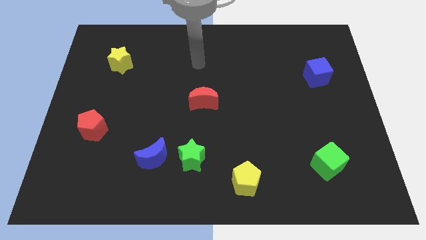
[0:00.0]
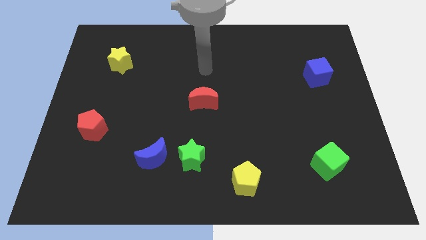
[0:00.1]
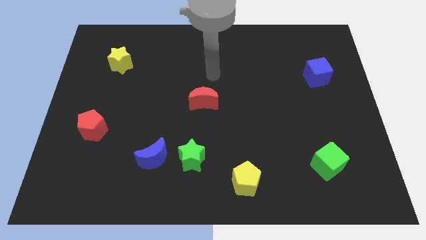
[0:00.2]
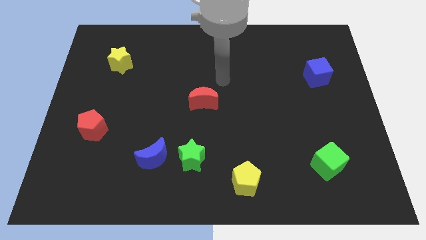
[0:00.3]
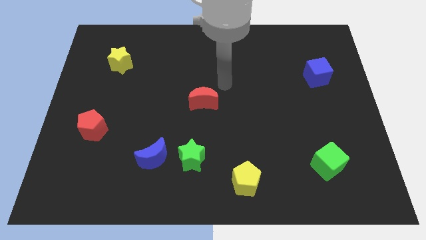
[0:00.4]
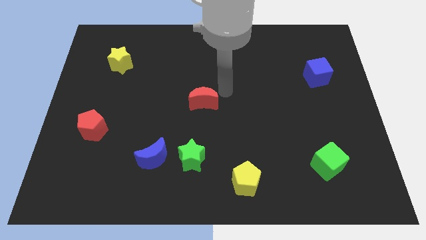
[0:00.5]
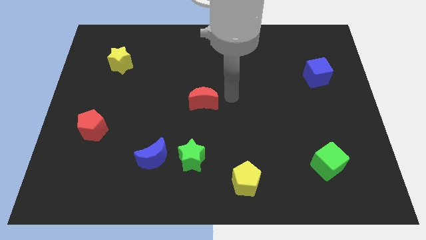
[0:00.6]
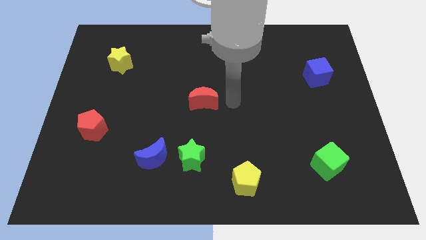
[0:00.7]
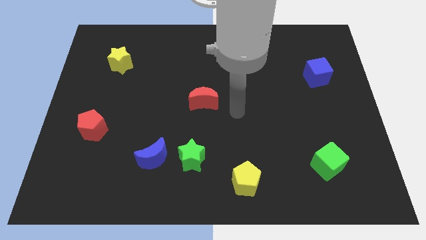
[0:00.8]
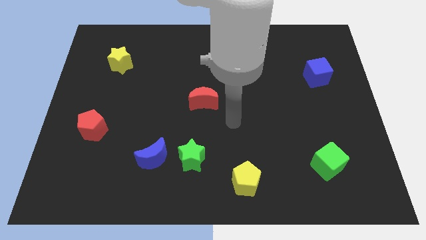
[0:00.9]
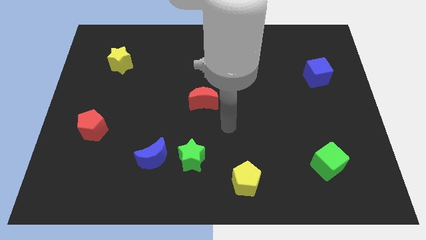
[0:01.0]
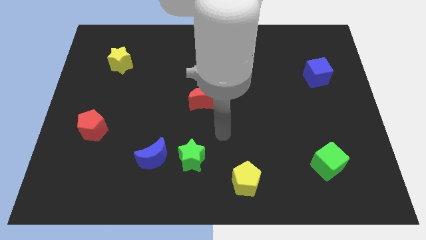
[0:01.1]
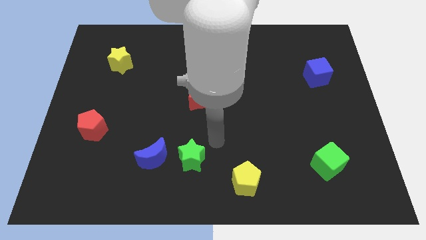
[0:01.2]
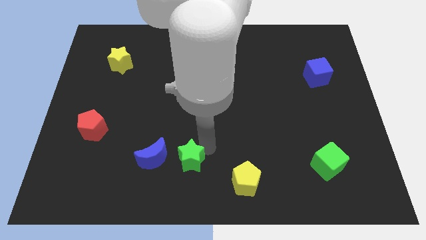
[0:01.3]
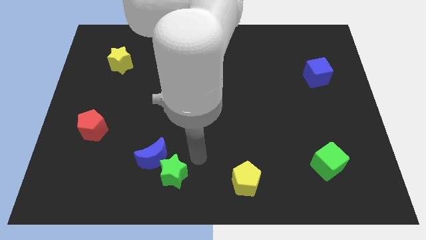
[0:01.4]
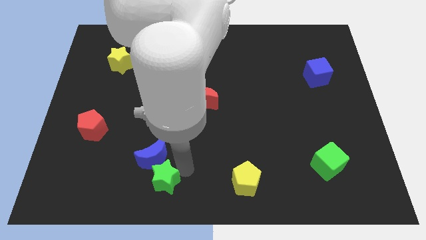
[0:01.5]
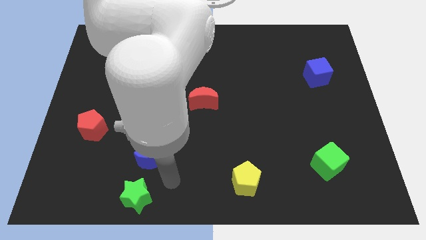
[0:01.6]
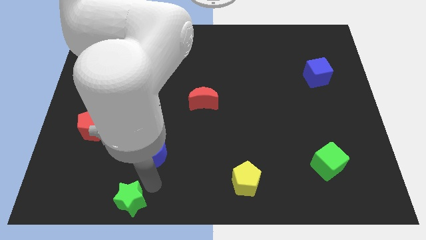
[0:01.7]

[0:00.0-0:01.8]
separate the blue moon from the green star

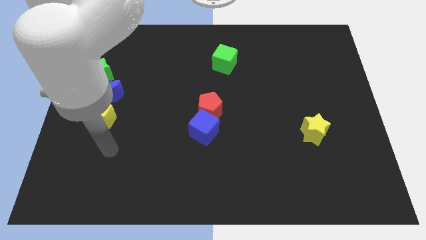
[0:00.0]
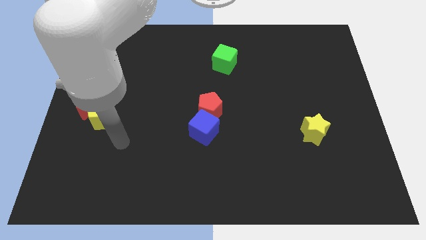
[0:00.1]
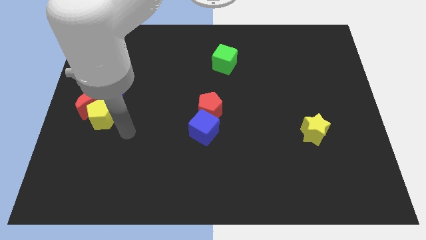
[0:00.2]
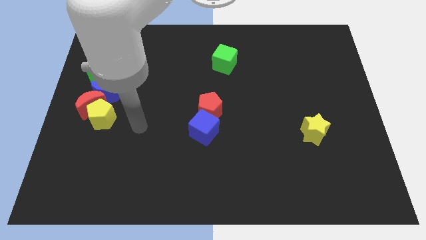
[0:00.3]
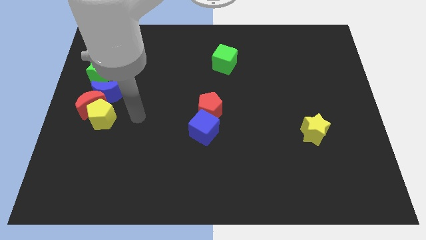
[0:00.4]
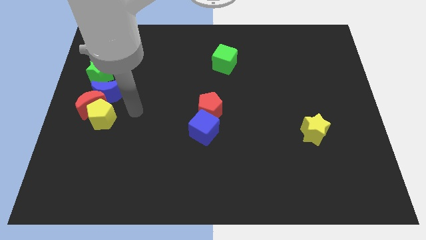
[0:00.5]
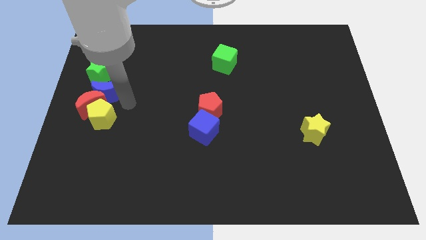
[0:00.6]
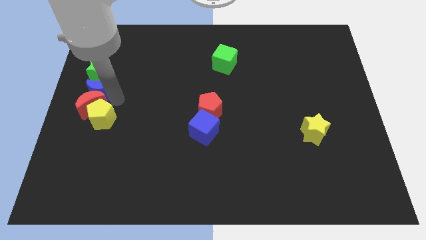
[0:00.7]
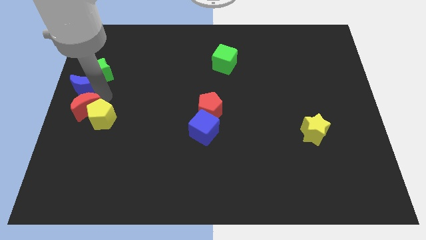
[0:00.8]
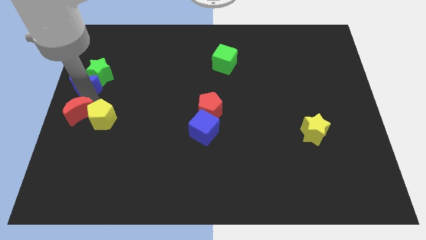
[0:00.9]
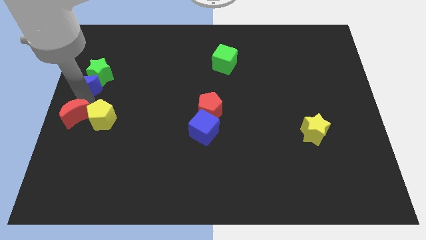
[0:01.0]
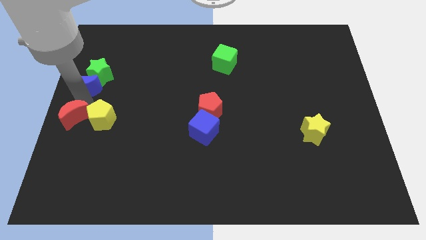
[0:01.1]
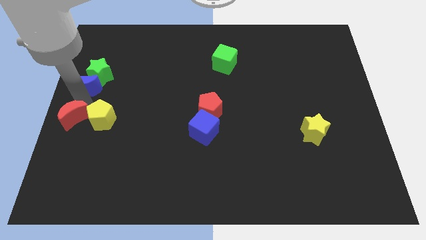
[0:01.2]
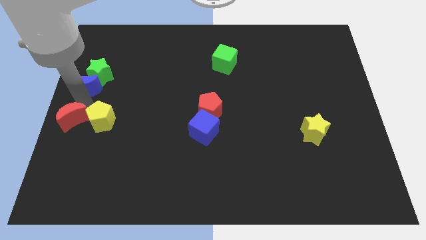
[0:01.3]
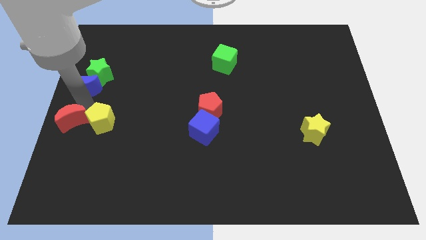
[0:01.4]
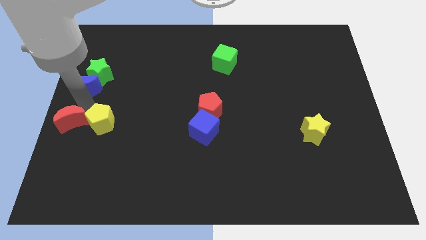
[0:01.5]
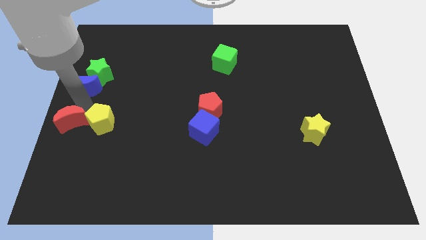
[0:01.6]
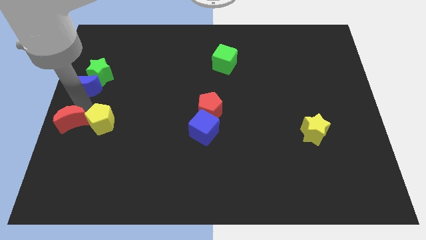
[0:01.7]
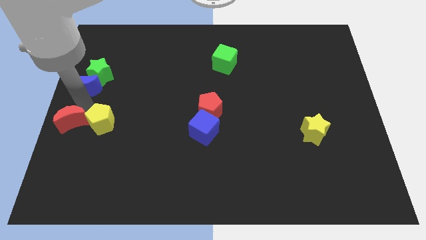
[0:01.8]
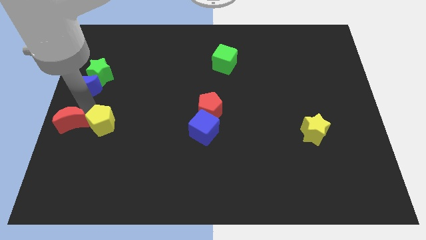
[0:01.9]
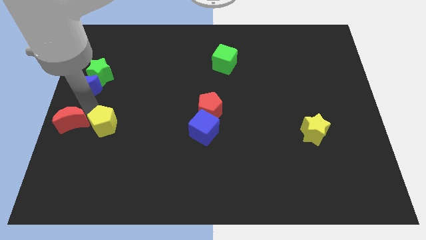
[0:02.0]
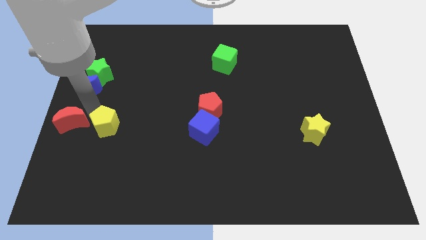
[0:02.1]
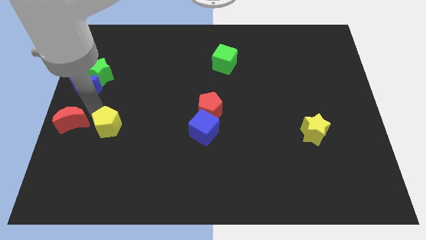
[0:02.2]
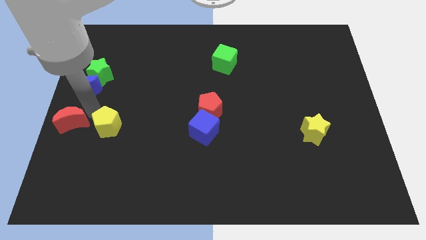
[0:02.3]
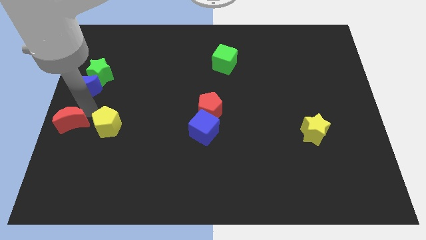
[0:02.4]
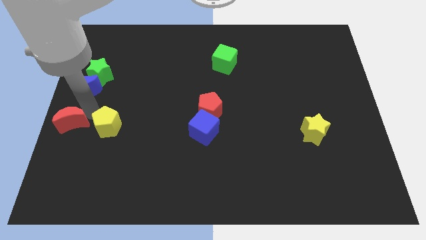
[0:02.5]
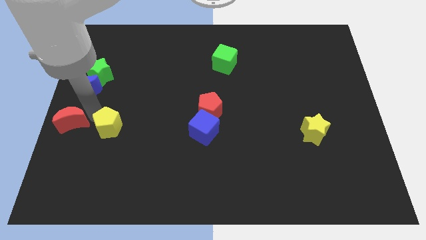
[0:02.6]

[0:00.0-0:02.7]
separate the yellow pentagon from the red moon and blue moon

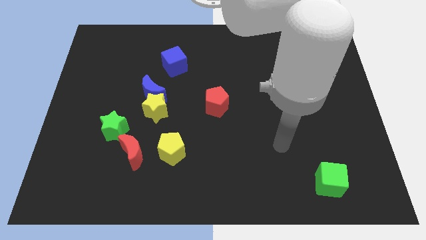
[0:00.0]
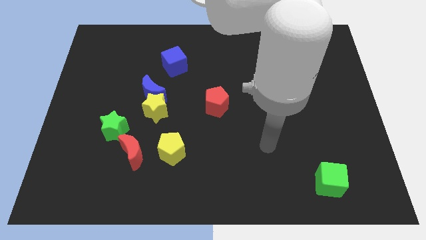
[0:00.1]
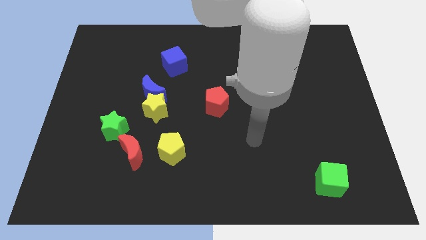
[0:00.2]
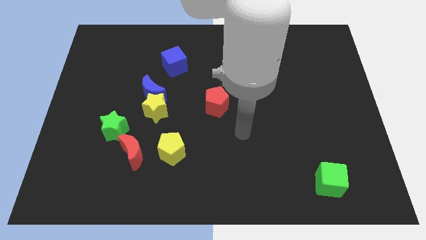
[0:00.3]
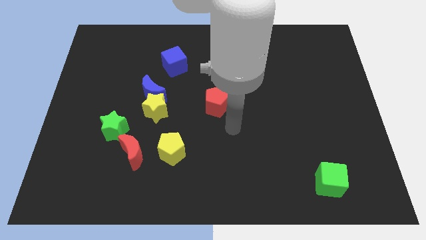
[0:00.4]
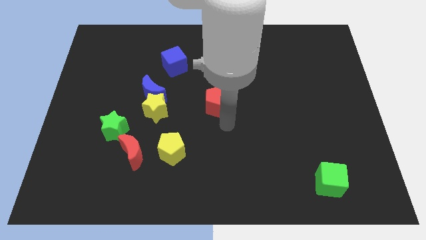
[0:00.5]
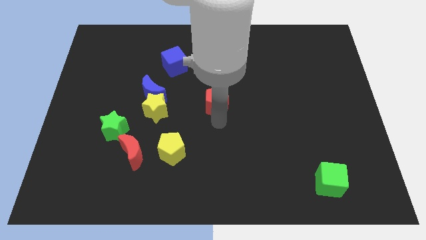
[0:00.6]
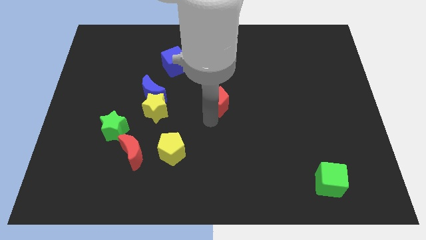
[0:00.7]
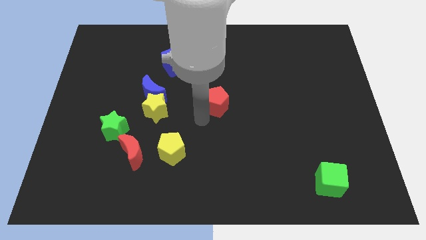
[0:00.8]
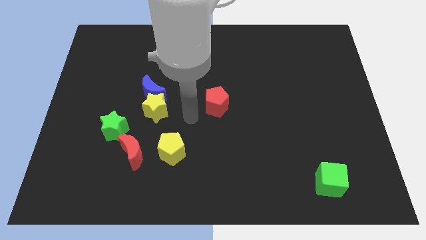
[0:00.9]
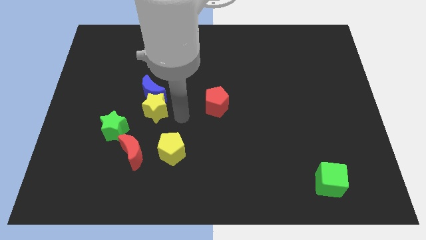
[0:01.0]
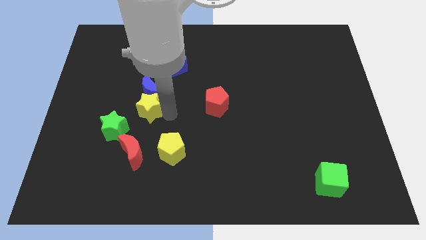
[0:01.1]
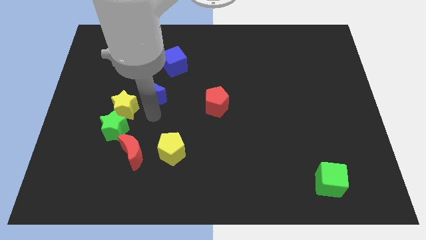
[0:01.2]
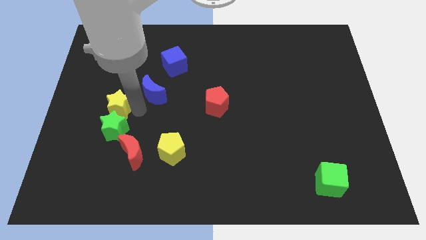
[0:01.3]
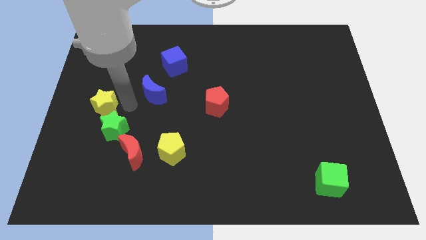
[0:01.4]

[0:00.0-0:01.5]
separate the blue moon from the yellow star

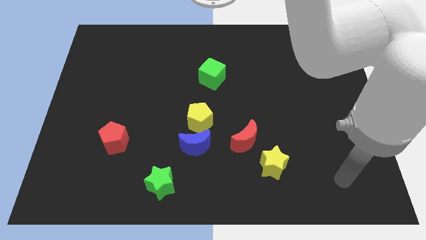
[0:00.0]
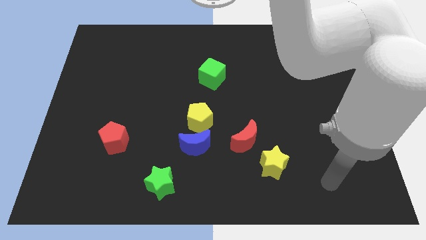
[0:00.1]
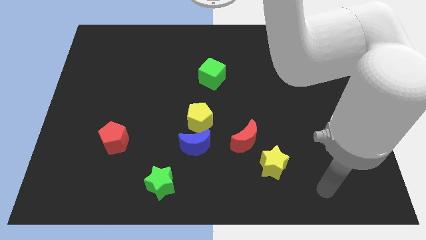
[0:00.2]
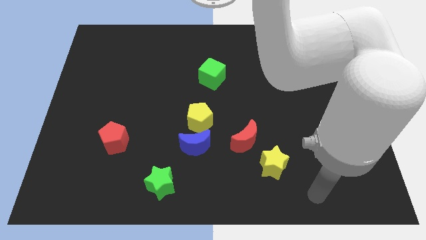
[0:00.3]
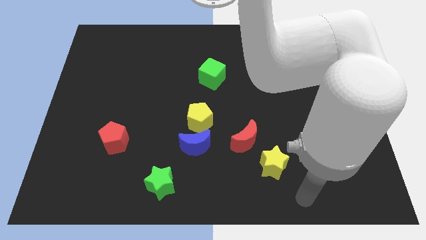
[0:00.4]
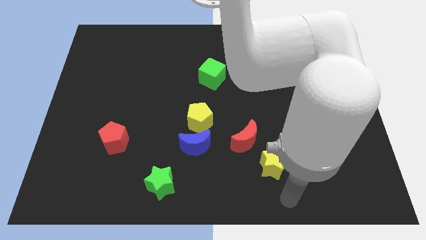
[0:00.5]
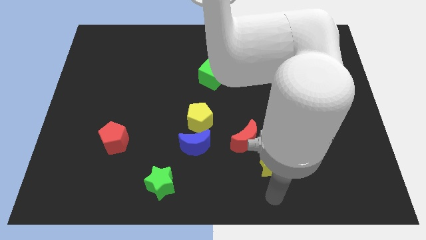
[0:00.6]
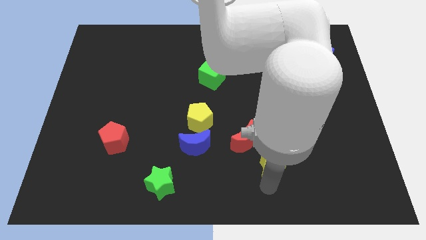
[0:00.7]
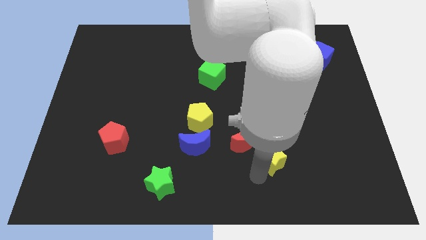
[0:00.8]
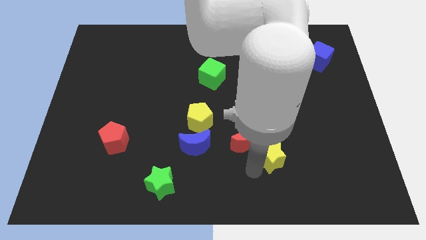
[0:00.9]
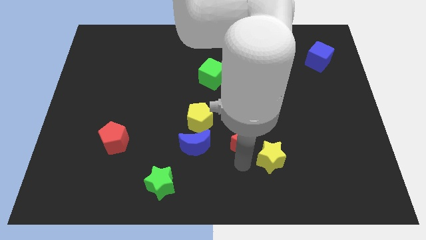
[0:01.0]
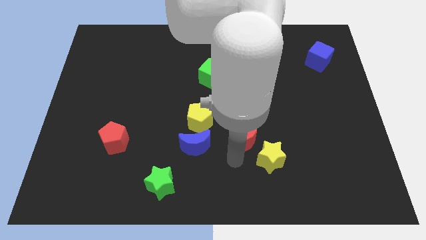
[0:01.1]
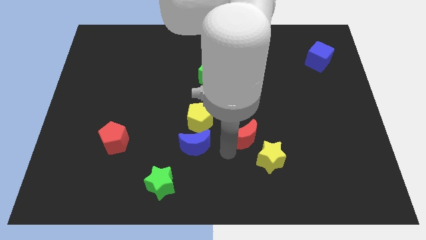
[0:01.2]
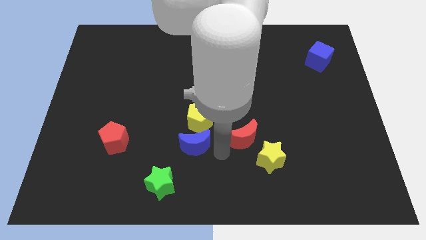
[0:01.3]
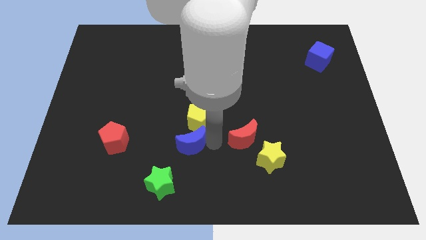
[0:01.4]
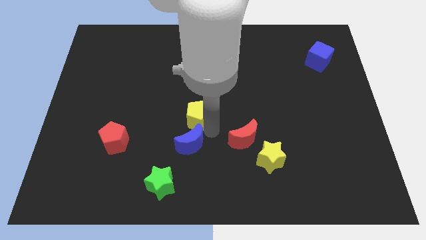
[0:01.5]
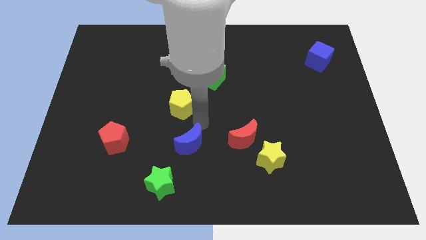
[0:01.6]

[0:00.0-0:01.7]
move the blue moon away from the yellow pentagon

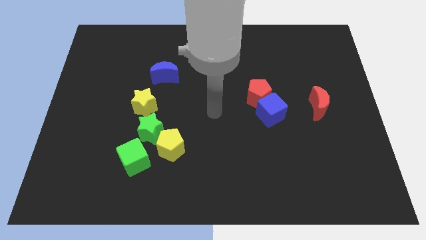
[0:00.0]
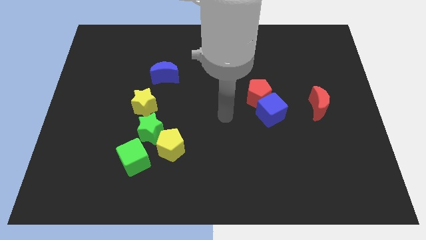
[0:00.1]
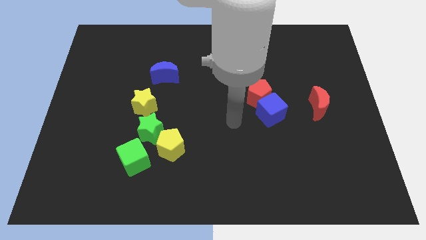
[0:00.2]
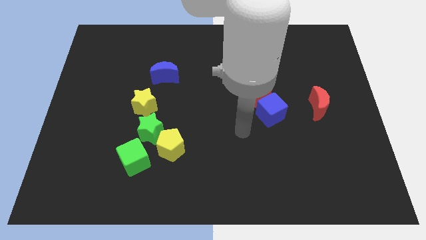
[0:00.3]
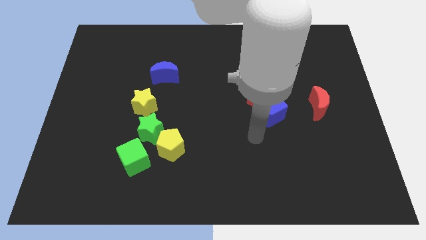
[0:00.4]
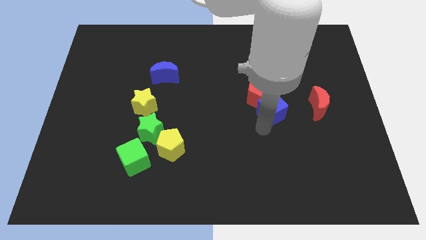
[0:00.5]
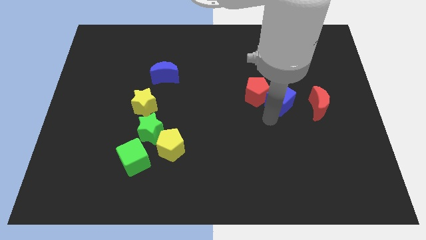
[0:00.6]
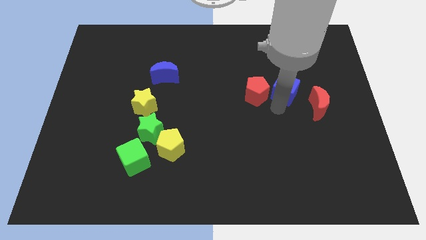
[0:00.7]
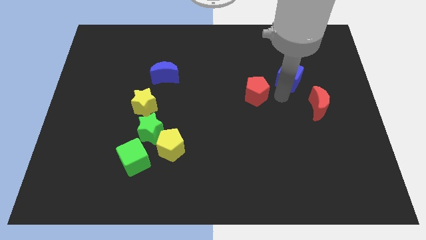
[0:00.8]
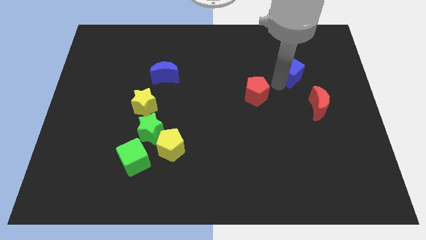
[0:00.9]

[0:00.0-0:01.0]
separate the red pentagon from the blue cube

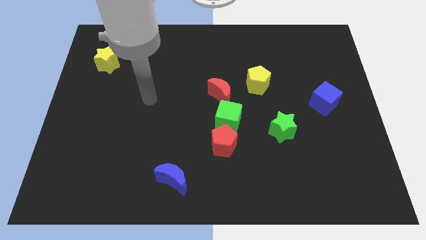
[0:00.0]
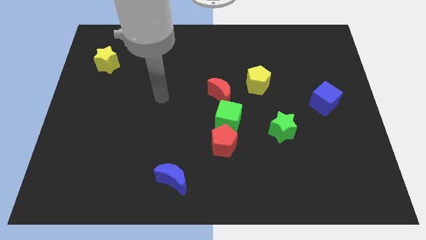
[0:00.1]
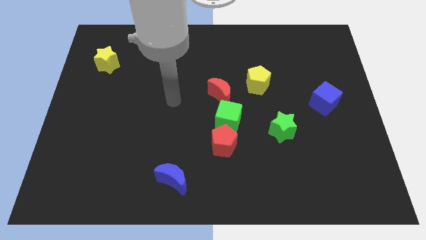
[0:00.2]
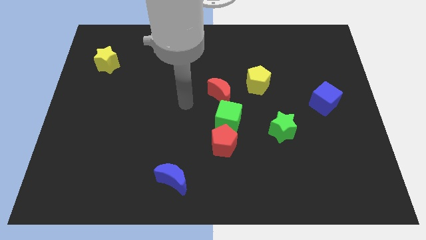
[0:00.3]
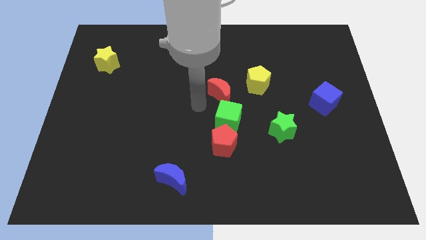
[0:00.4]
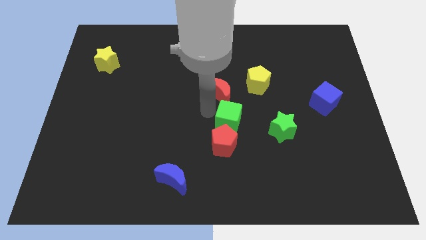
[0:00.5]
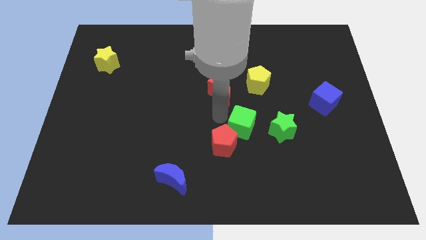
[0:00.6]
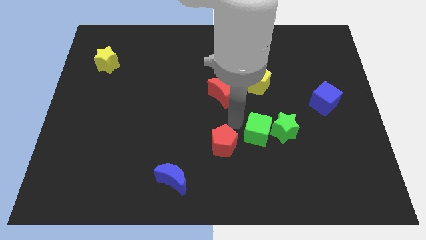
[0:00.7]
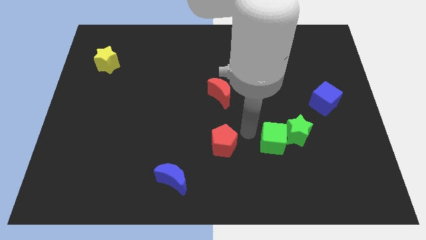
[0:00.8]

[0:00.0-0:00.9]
pull the red pentagon apart from the green cube
